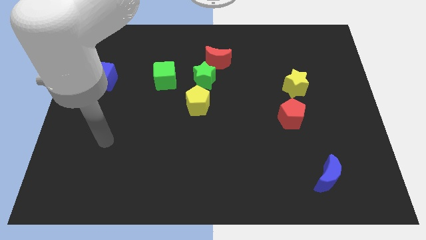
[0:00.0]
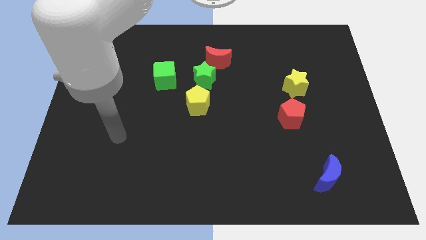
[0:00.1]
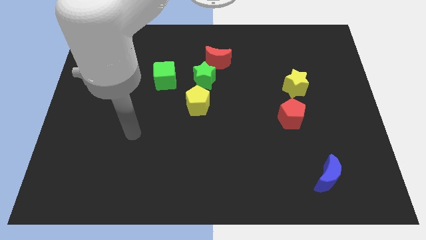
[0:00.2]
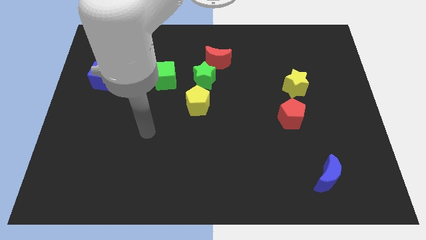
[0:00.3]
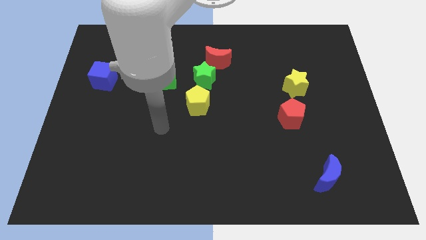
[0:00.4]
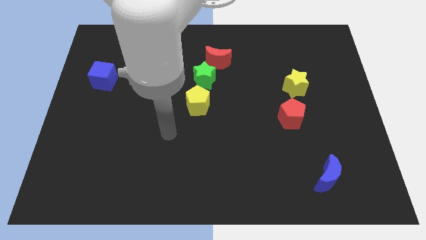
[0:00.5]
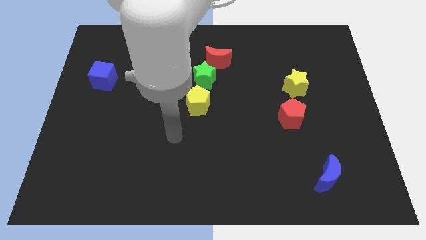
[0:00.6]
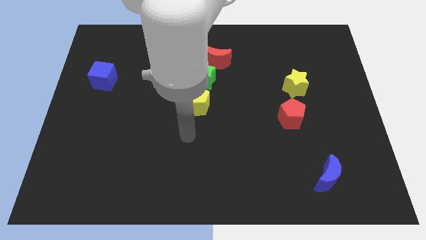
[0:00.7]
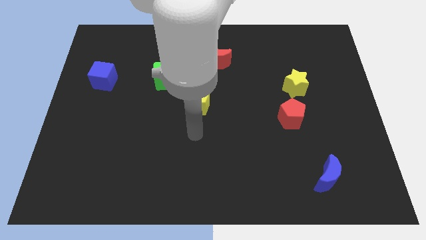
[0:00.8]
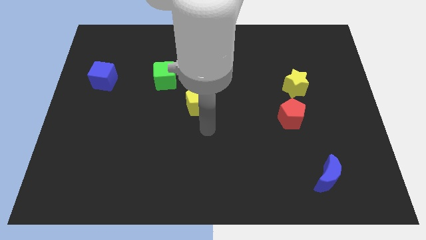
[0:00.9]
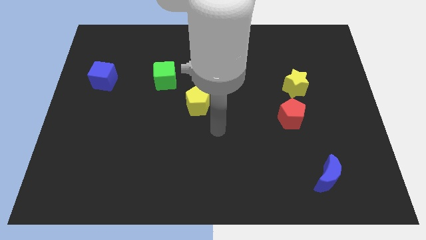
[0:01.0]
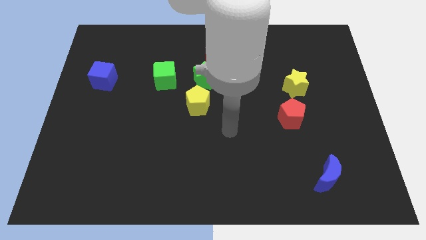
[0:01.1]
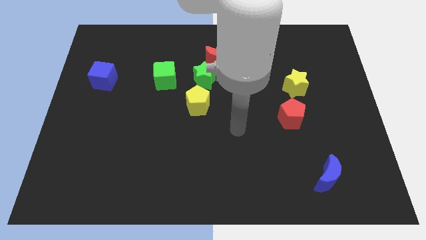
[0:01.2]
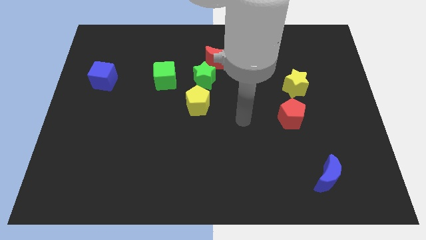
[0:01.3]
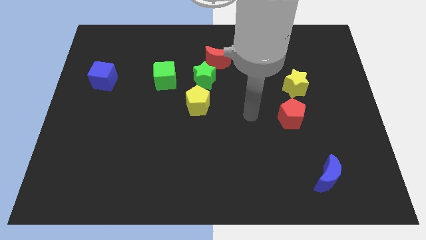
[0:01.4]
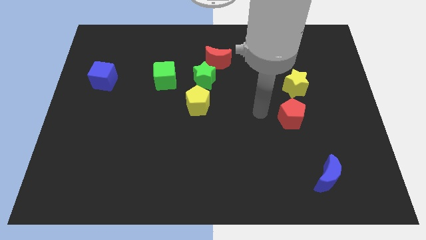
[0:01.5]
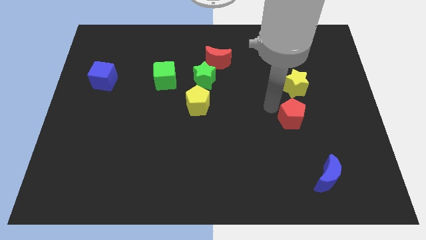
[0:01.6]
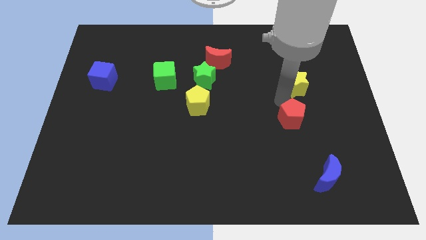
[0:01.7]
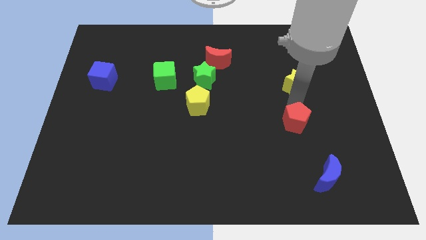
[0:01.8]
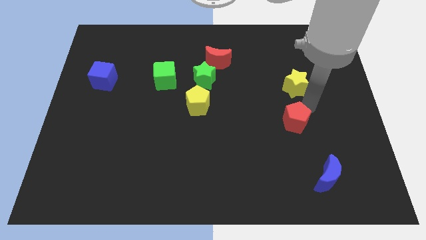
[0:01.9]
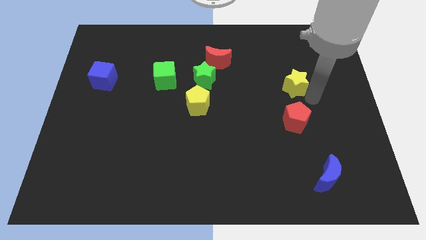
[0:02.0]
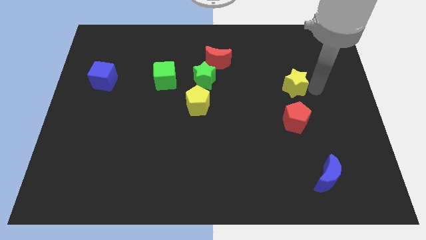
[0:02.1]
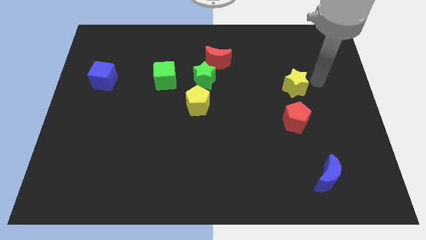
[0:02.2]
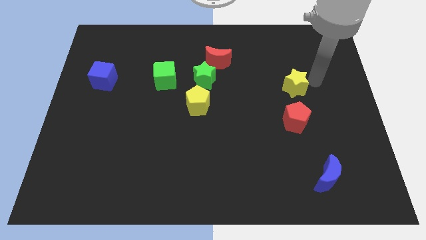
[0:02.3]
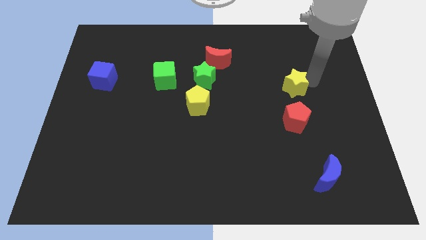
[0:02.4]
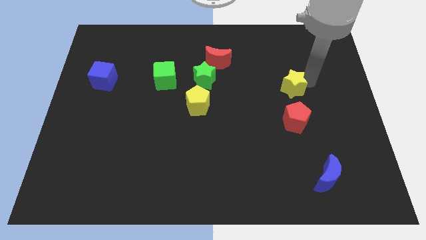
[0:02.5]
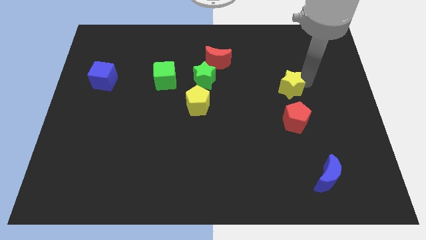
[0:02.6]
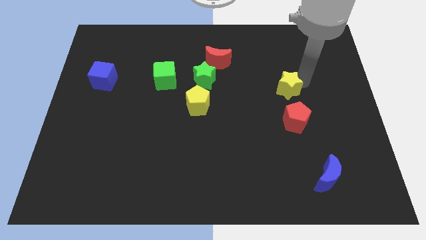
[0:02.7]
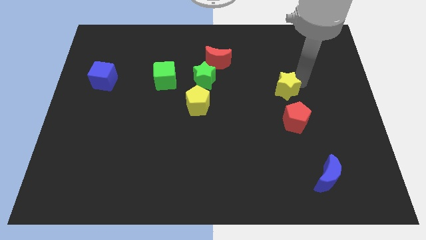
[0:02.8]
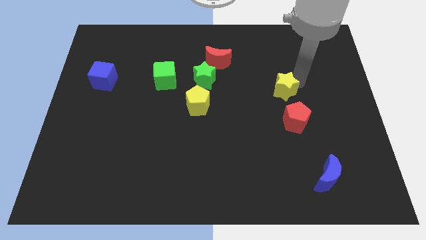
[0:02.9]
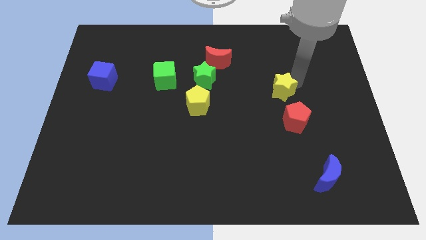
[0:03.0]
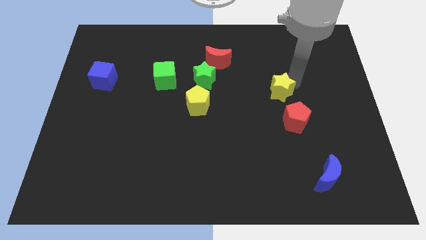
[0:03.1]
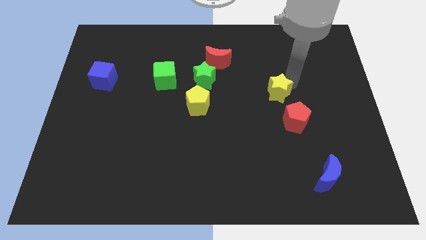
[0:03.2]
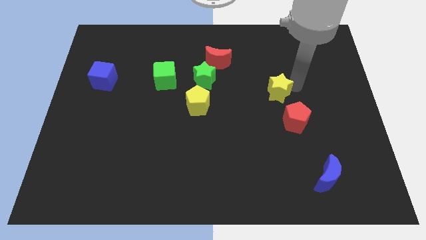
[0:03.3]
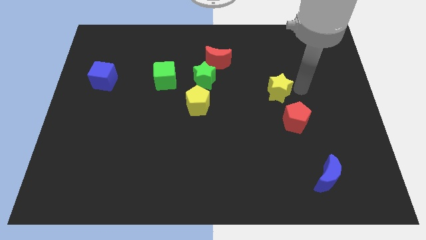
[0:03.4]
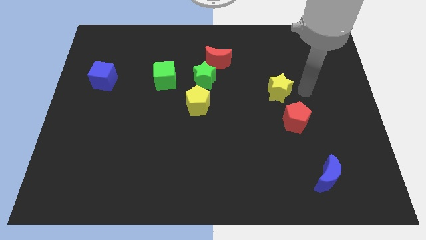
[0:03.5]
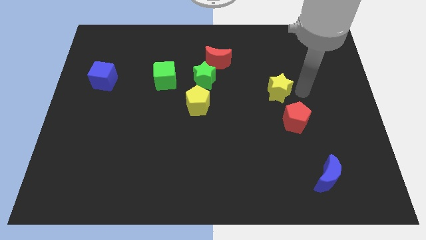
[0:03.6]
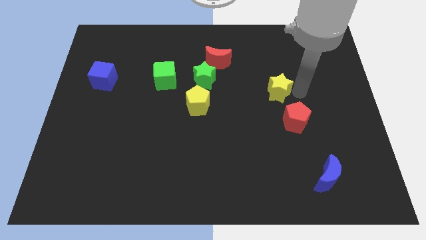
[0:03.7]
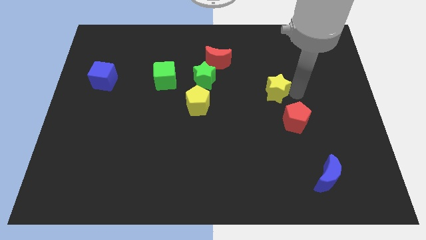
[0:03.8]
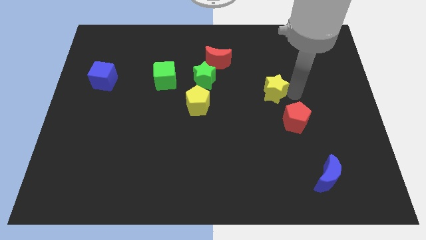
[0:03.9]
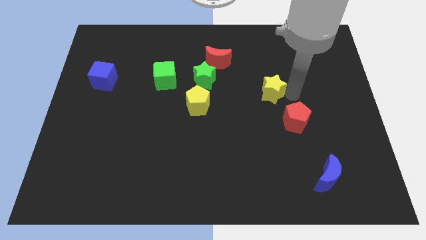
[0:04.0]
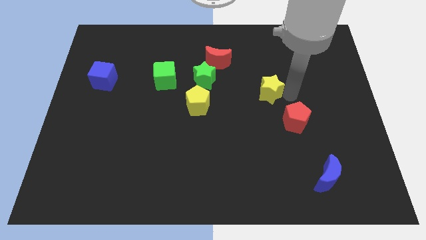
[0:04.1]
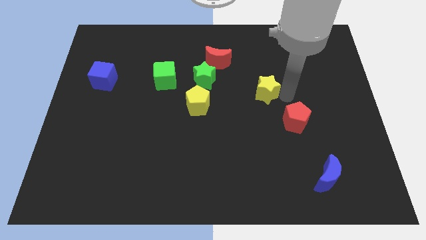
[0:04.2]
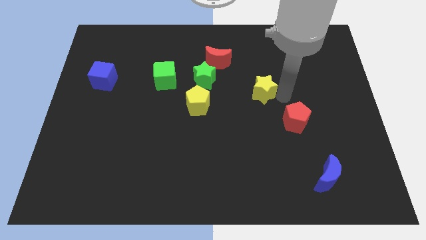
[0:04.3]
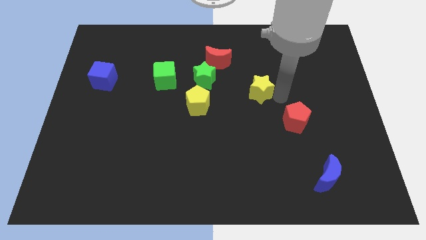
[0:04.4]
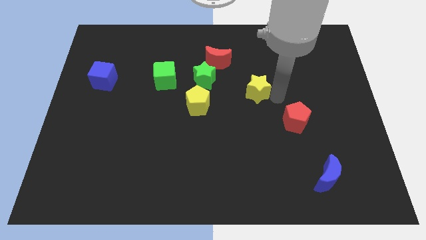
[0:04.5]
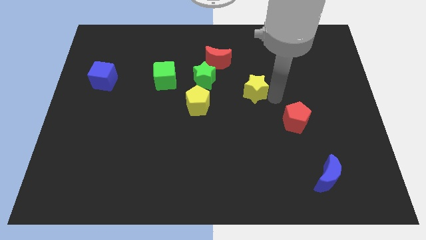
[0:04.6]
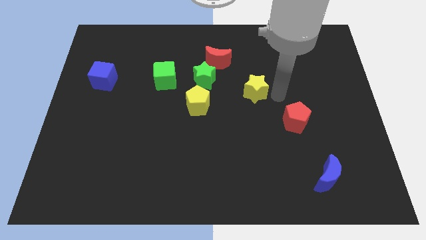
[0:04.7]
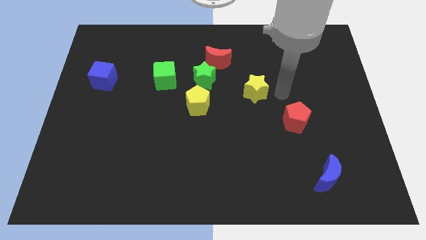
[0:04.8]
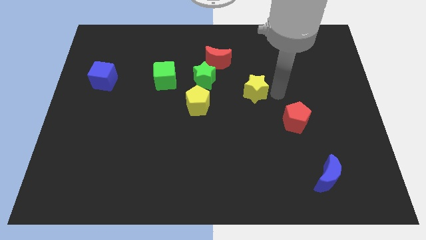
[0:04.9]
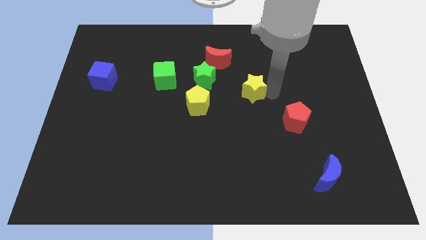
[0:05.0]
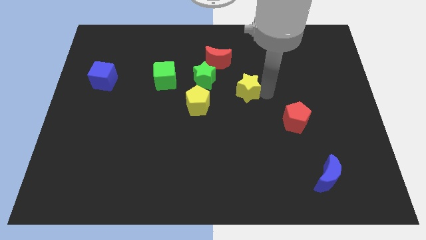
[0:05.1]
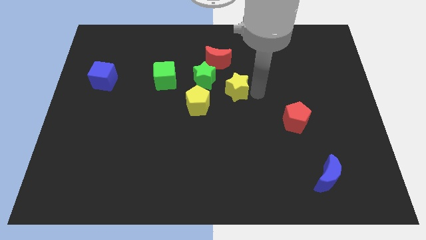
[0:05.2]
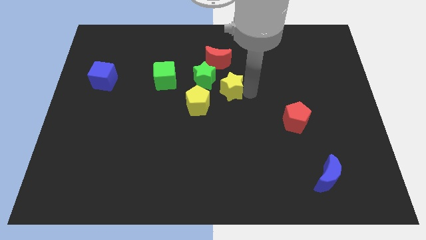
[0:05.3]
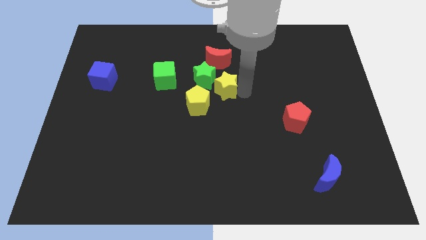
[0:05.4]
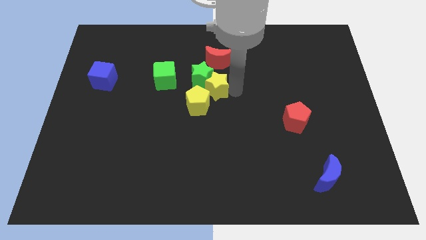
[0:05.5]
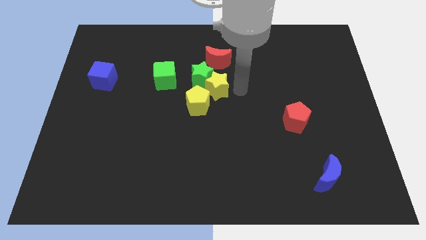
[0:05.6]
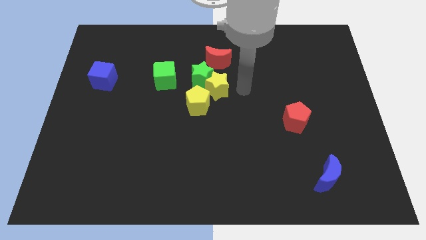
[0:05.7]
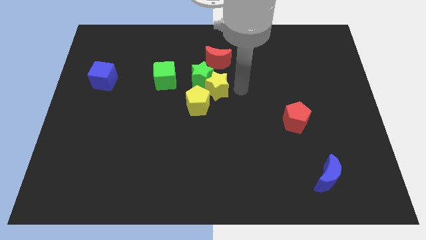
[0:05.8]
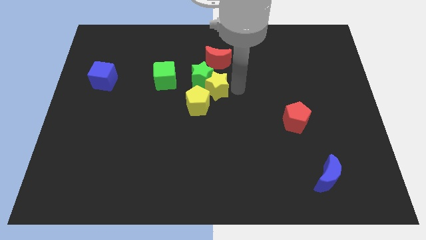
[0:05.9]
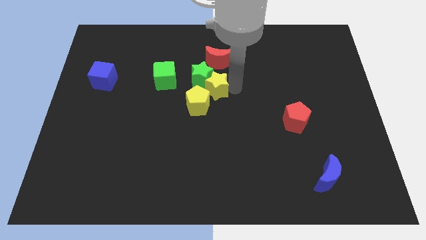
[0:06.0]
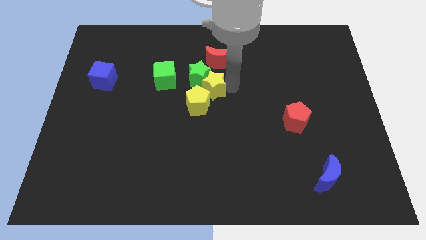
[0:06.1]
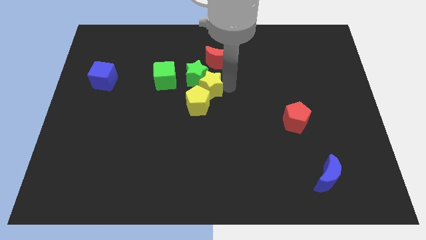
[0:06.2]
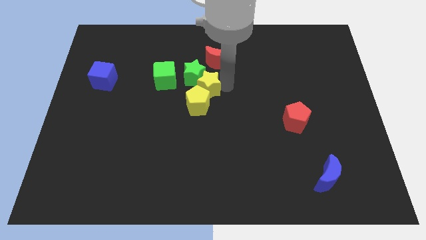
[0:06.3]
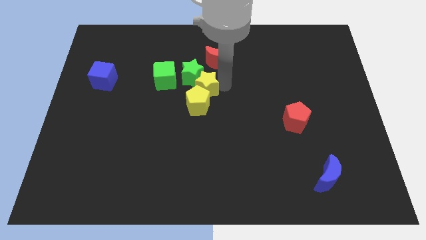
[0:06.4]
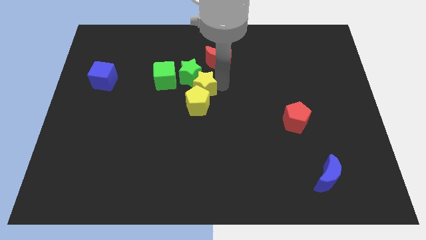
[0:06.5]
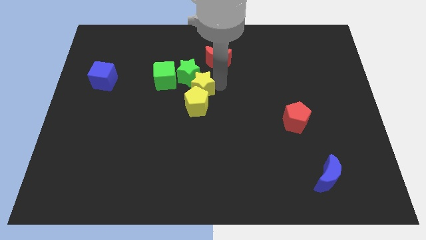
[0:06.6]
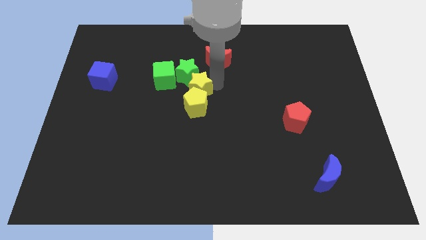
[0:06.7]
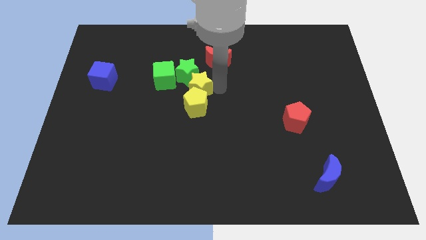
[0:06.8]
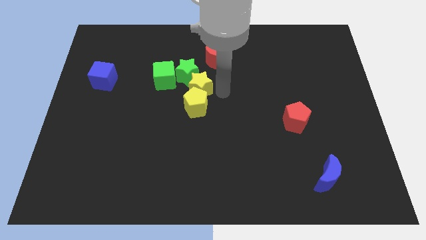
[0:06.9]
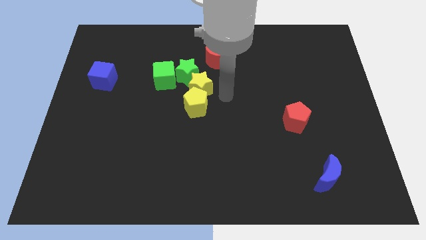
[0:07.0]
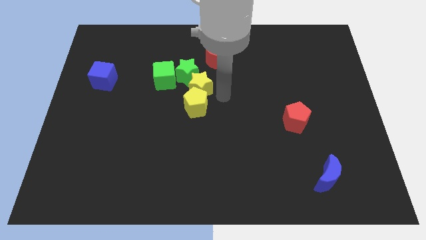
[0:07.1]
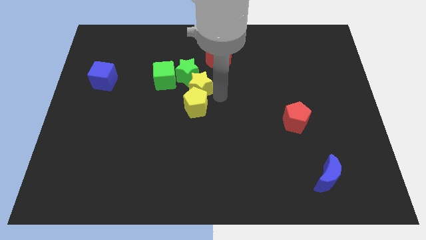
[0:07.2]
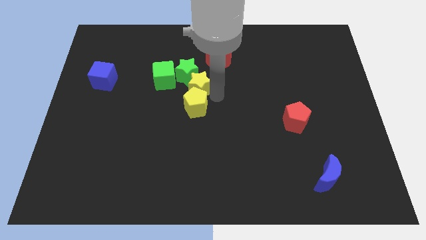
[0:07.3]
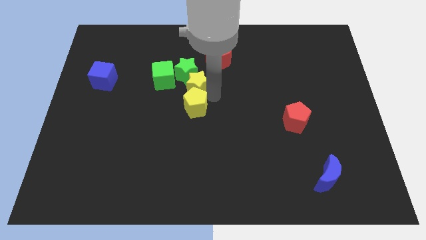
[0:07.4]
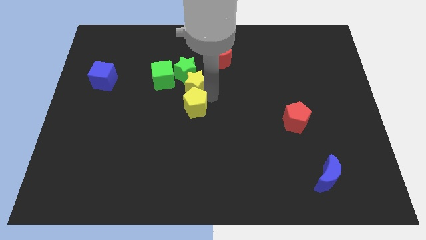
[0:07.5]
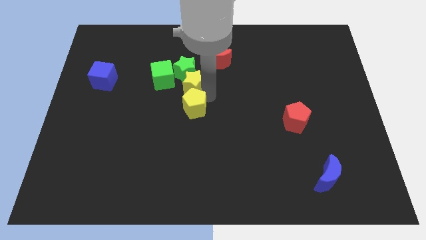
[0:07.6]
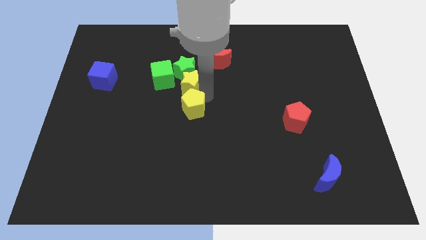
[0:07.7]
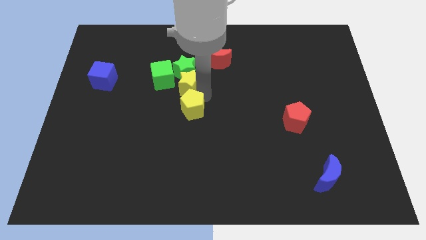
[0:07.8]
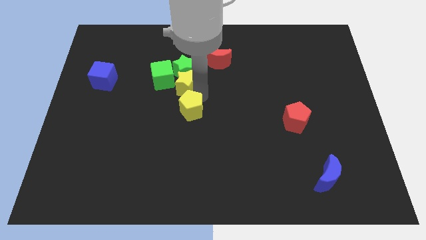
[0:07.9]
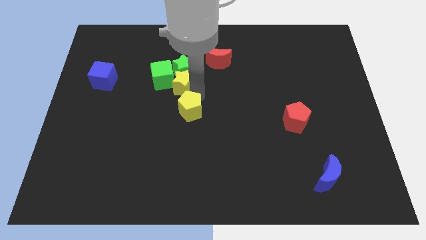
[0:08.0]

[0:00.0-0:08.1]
move the yellow star to the green cube
